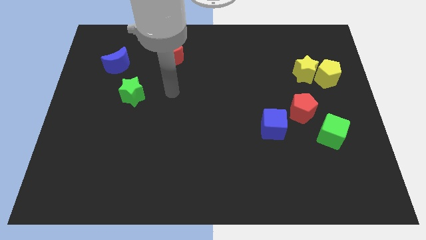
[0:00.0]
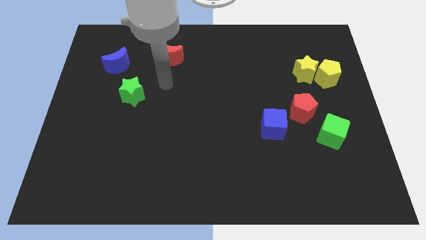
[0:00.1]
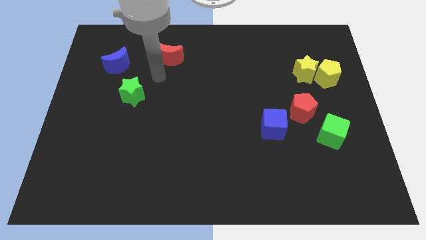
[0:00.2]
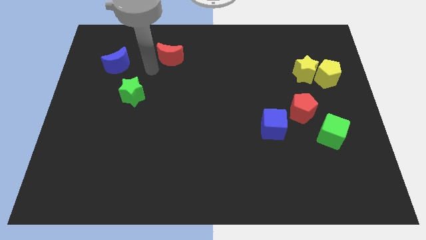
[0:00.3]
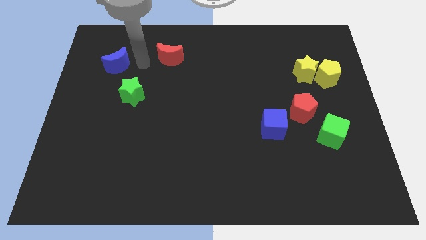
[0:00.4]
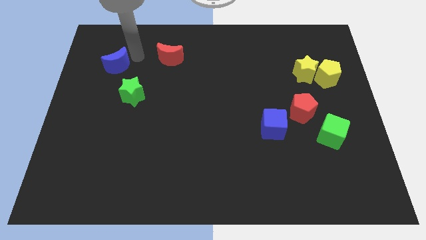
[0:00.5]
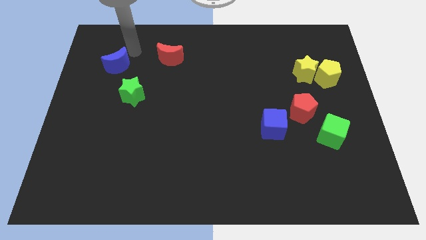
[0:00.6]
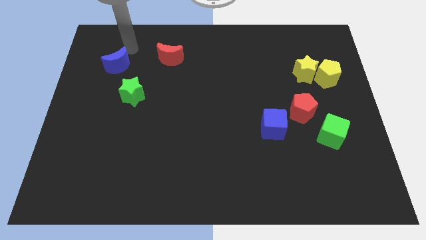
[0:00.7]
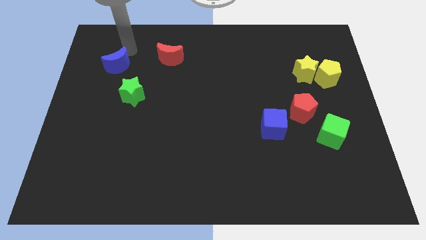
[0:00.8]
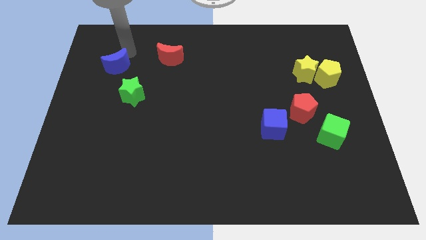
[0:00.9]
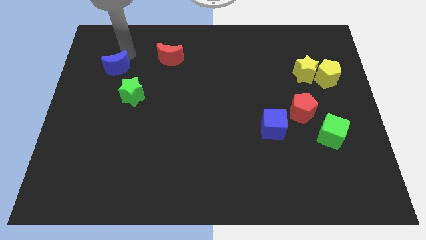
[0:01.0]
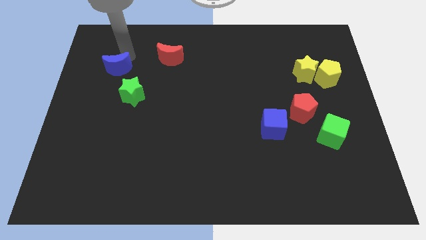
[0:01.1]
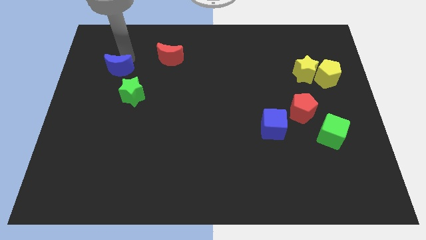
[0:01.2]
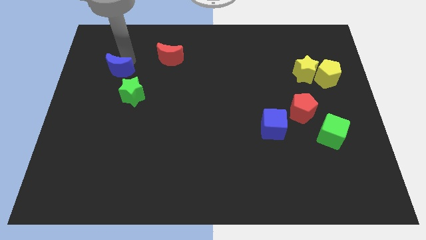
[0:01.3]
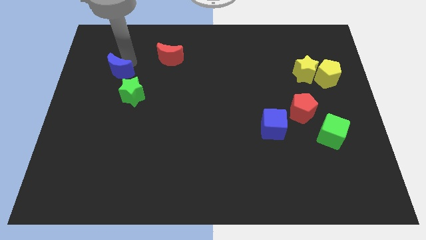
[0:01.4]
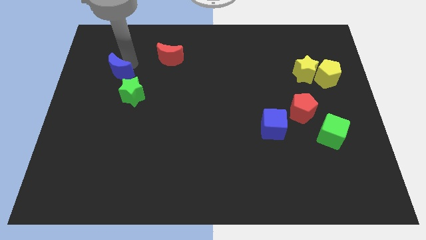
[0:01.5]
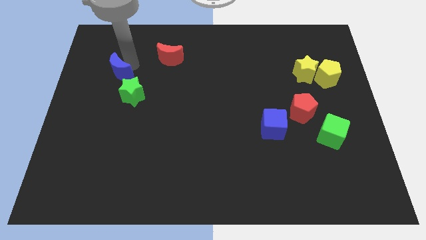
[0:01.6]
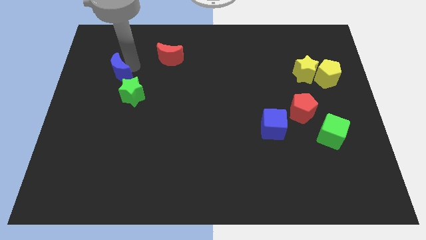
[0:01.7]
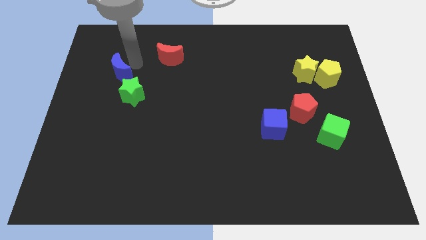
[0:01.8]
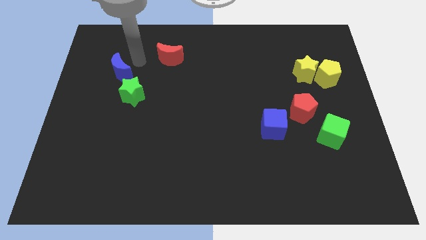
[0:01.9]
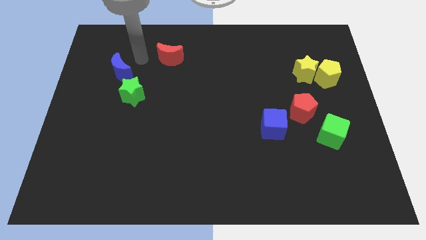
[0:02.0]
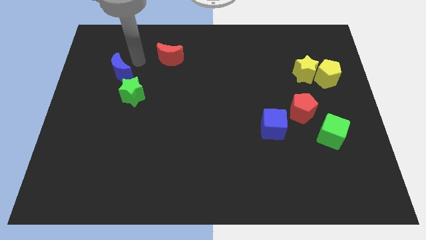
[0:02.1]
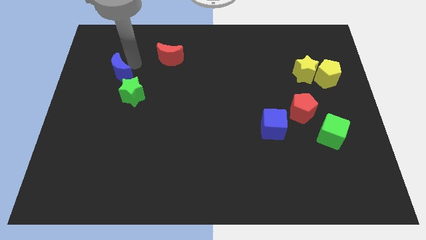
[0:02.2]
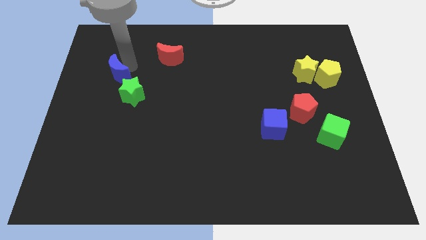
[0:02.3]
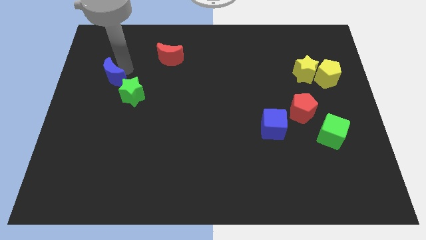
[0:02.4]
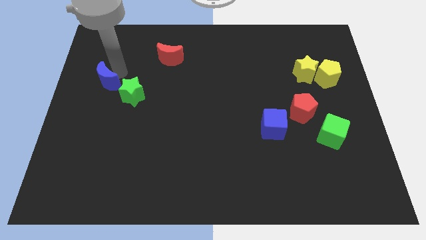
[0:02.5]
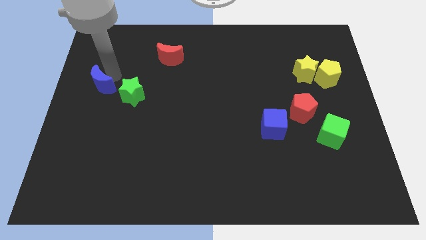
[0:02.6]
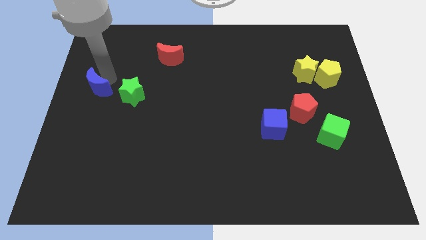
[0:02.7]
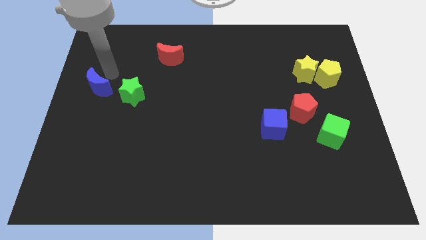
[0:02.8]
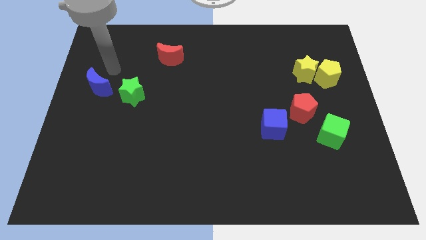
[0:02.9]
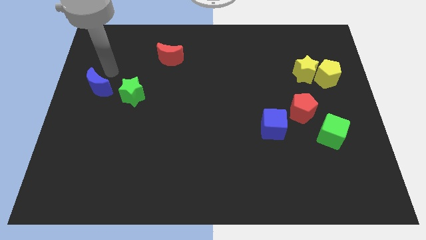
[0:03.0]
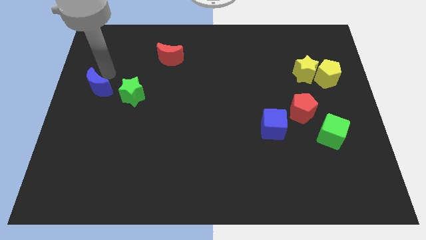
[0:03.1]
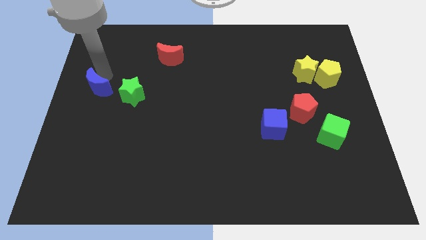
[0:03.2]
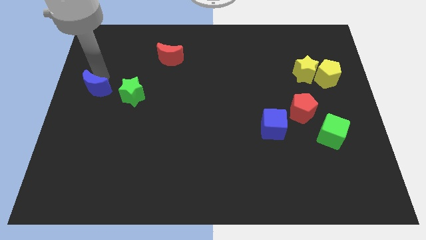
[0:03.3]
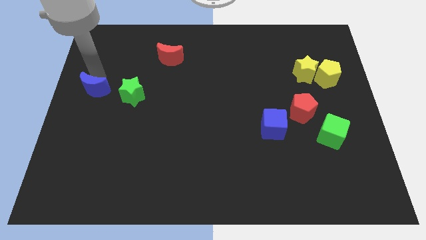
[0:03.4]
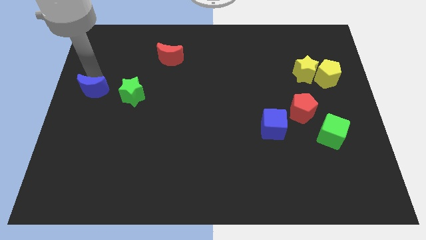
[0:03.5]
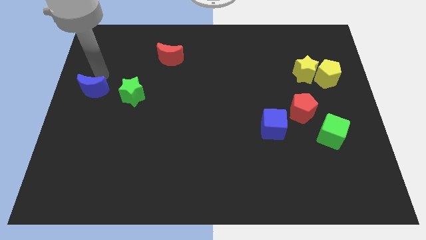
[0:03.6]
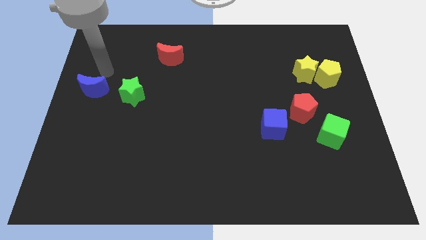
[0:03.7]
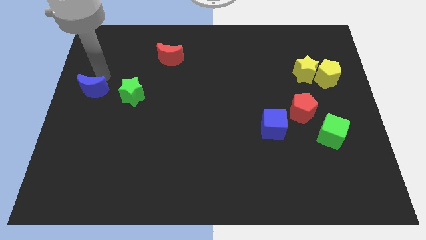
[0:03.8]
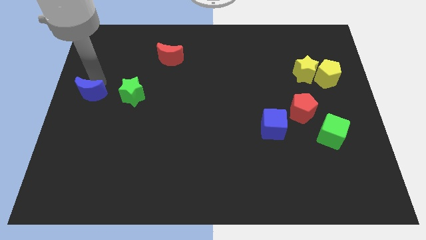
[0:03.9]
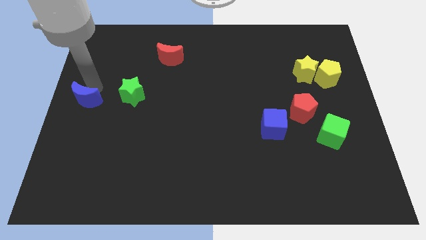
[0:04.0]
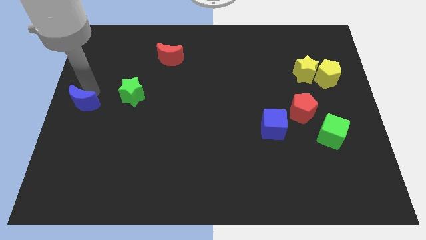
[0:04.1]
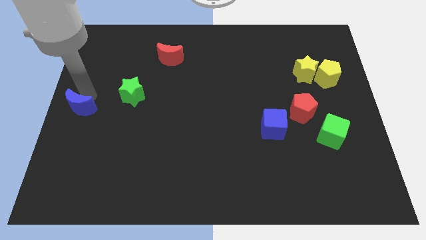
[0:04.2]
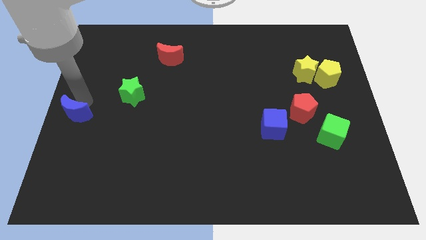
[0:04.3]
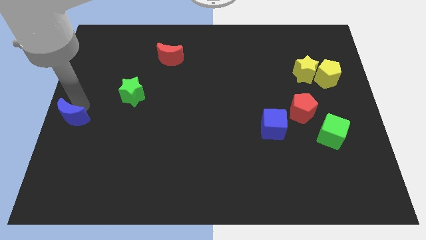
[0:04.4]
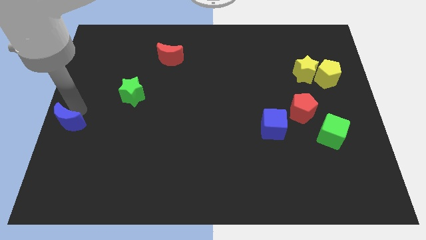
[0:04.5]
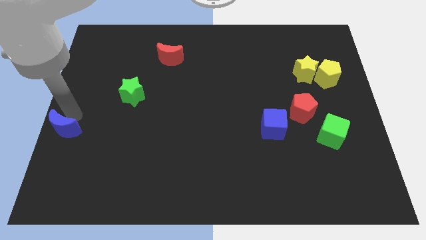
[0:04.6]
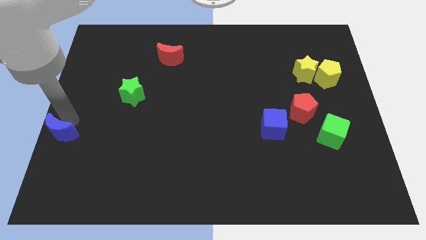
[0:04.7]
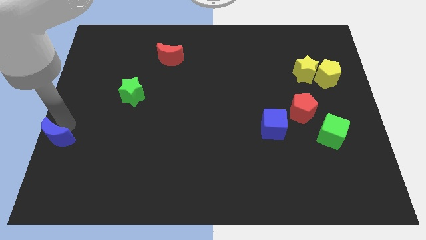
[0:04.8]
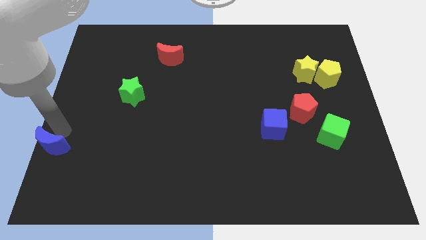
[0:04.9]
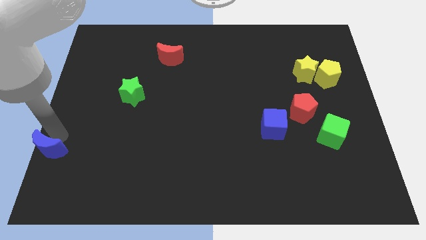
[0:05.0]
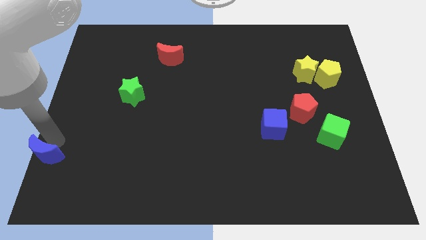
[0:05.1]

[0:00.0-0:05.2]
put the blue moon to the bottom left corner

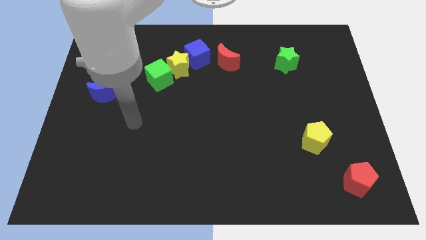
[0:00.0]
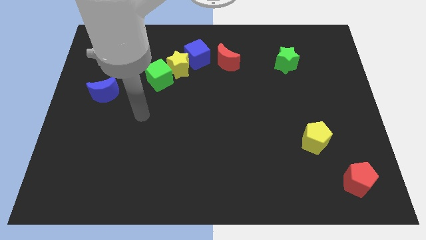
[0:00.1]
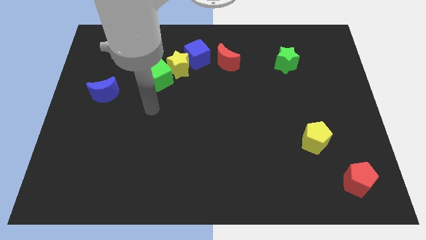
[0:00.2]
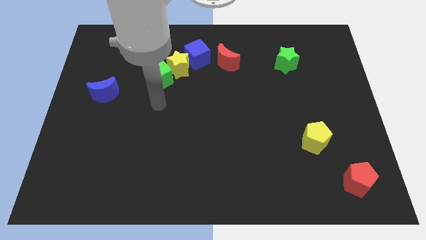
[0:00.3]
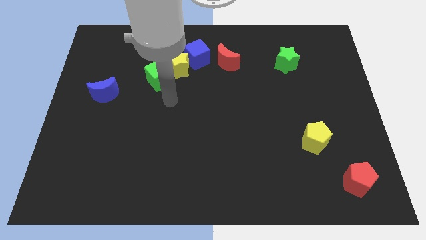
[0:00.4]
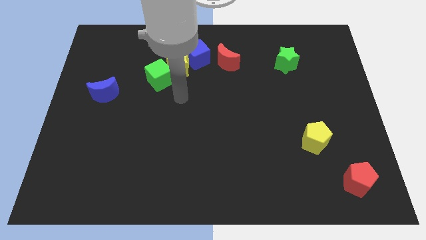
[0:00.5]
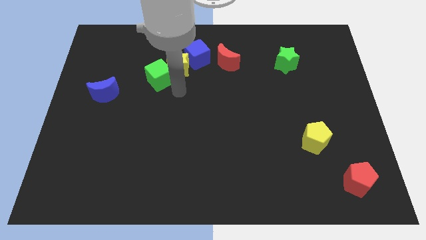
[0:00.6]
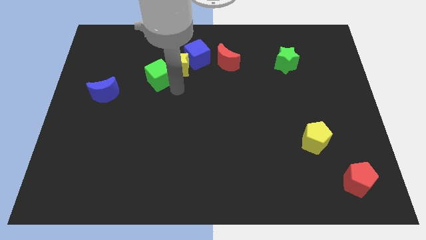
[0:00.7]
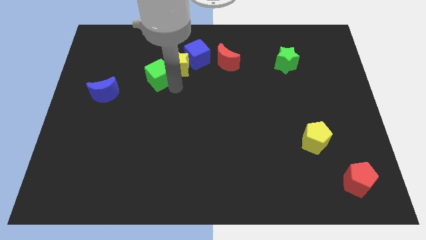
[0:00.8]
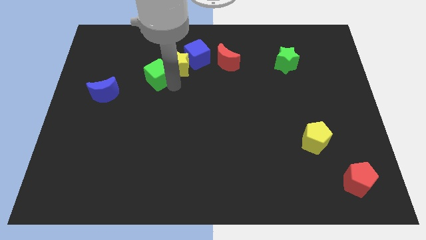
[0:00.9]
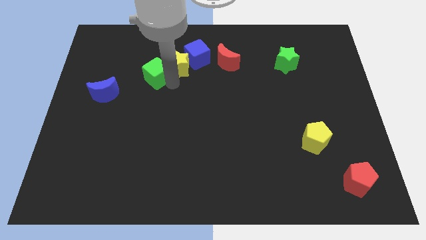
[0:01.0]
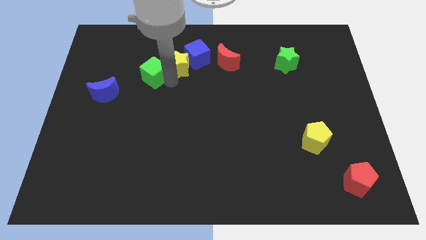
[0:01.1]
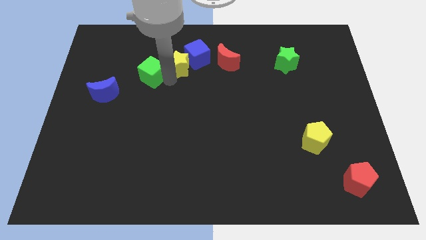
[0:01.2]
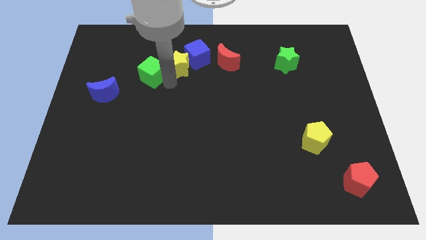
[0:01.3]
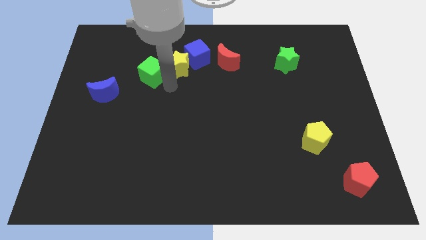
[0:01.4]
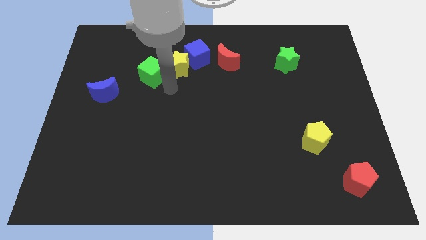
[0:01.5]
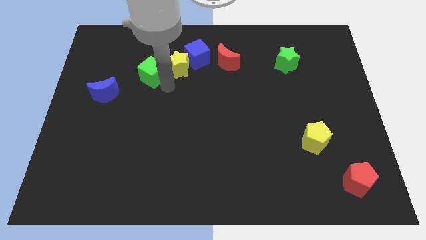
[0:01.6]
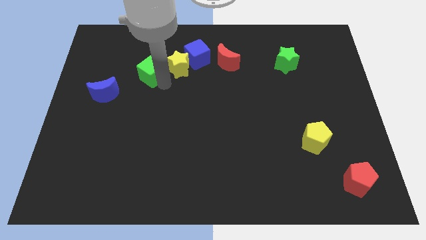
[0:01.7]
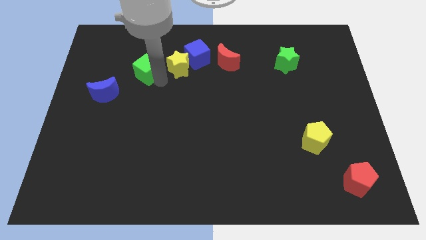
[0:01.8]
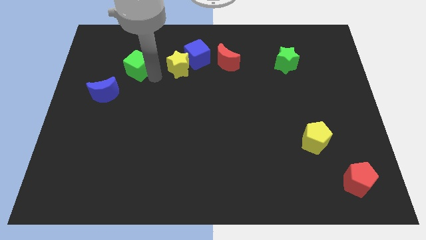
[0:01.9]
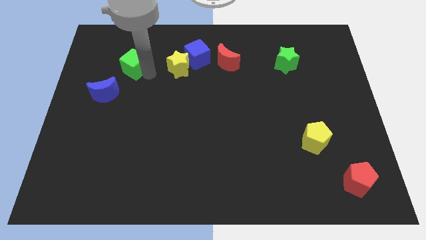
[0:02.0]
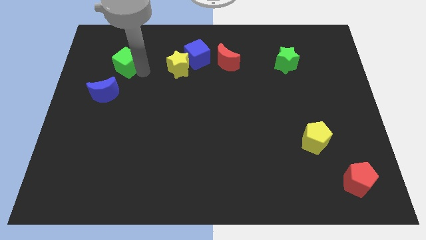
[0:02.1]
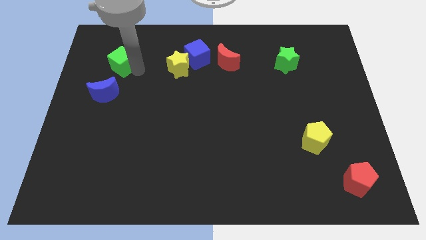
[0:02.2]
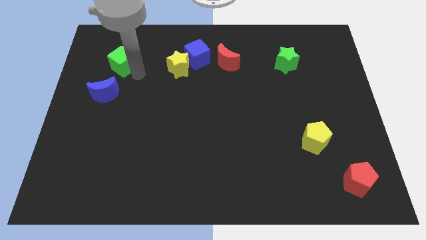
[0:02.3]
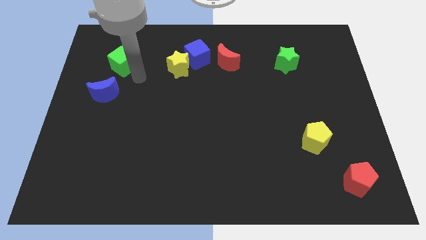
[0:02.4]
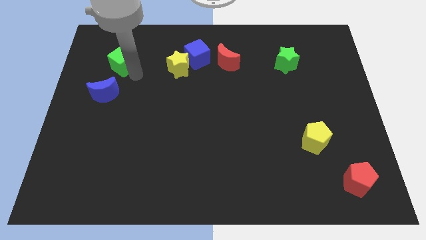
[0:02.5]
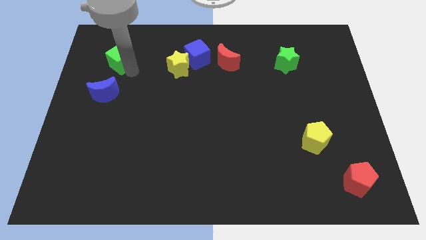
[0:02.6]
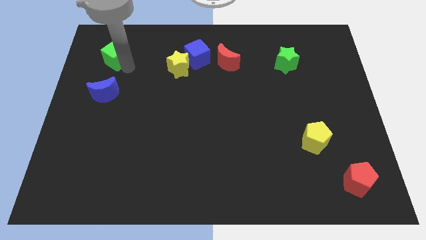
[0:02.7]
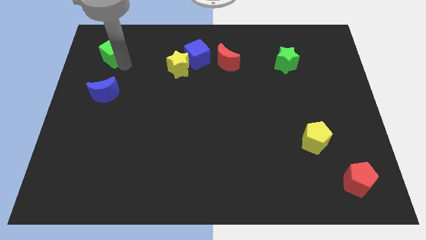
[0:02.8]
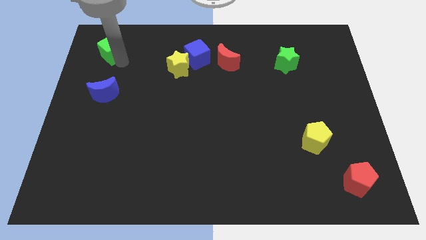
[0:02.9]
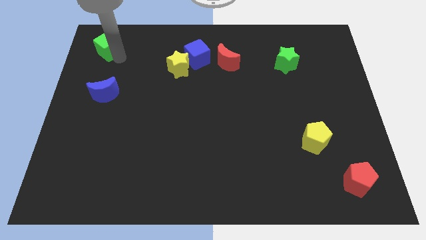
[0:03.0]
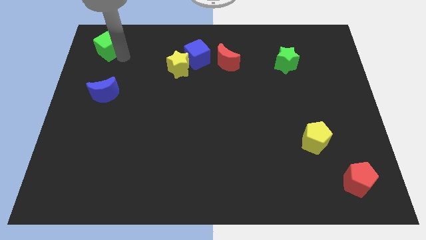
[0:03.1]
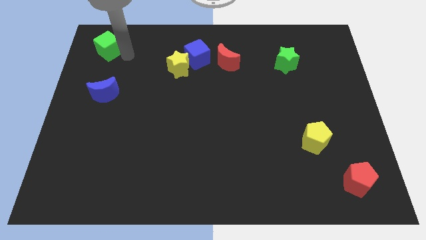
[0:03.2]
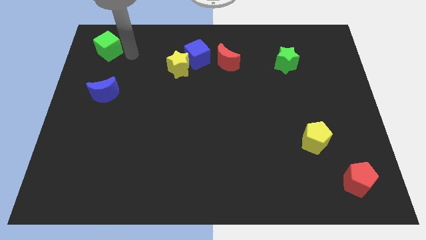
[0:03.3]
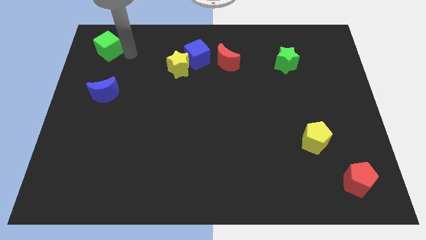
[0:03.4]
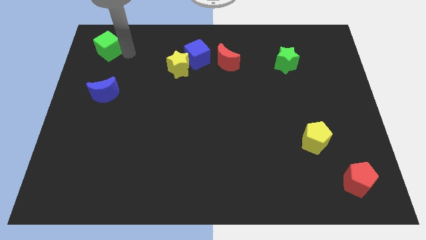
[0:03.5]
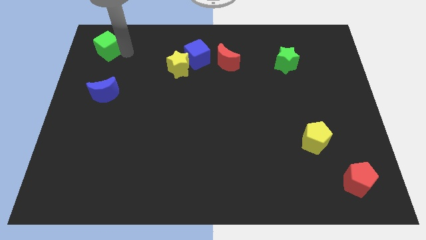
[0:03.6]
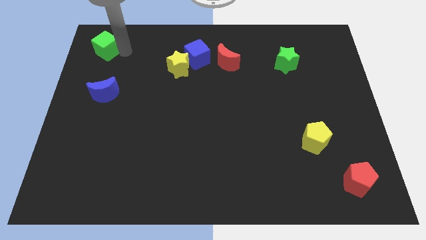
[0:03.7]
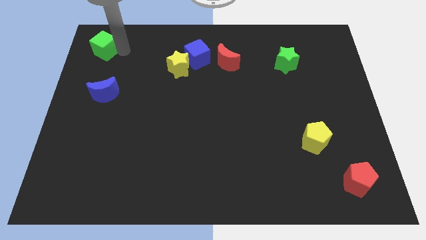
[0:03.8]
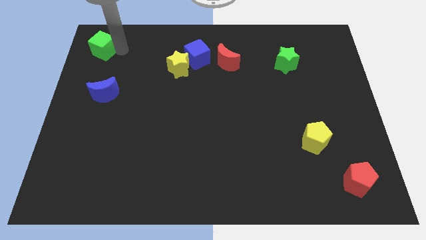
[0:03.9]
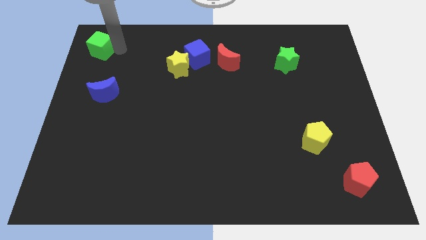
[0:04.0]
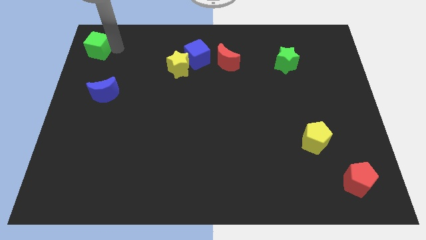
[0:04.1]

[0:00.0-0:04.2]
move the green cube to the top left of the board
